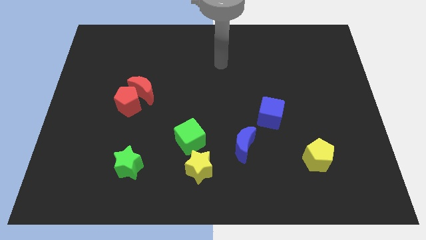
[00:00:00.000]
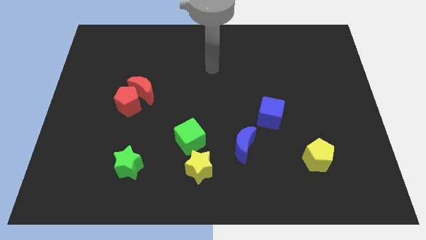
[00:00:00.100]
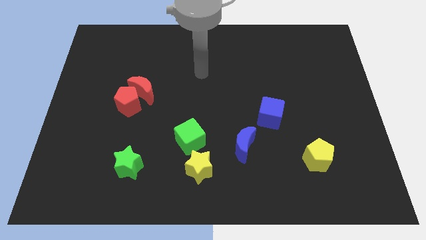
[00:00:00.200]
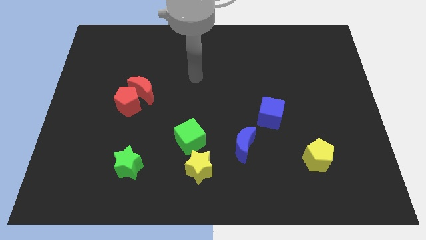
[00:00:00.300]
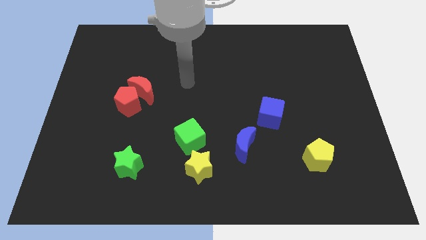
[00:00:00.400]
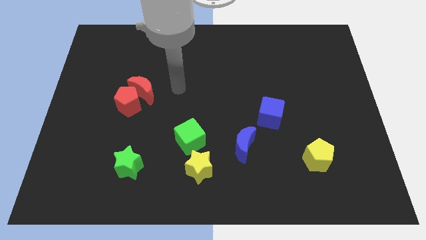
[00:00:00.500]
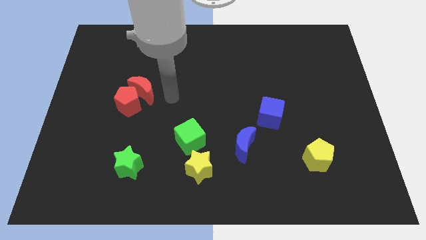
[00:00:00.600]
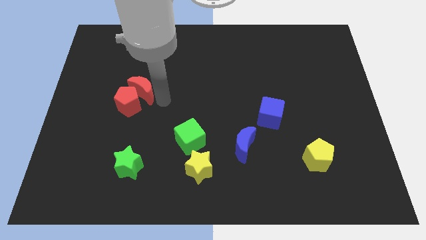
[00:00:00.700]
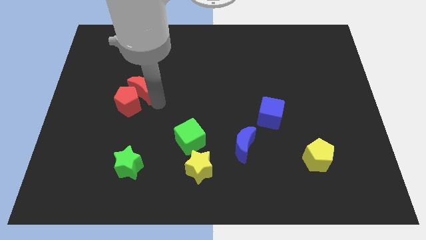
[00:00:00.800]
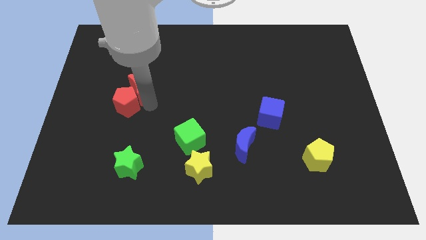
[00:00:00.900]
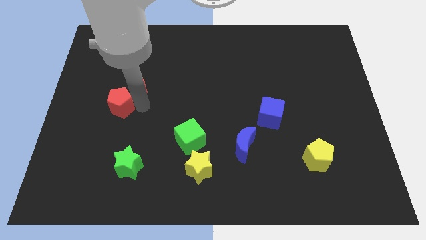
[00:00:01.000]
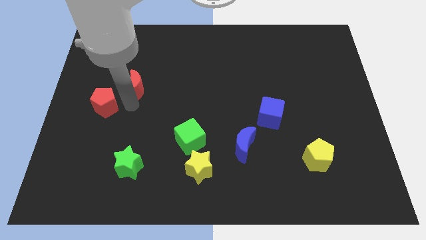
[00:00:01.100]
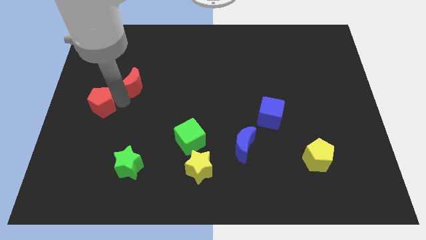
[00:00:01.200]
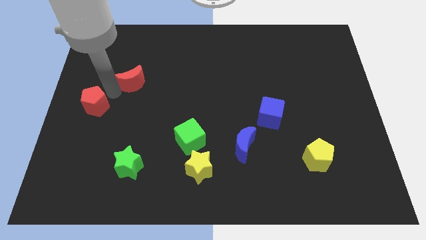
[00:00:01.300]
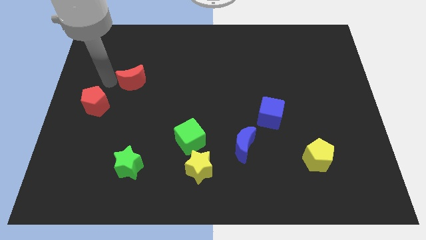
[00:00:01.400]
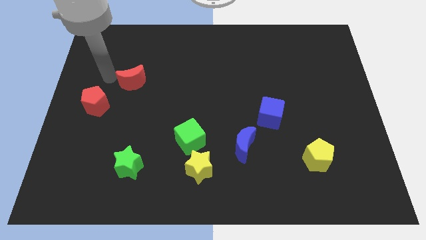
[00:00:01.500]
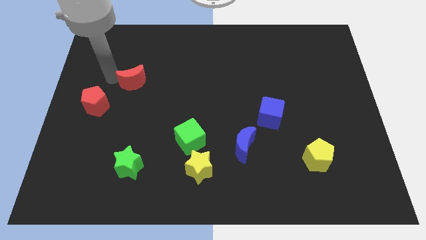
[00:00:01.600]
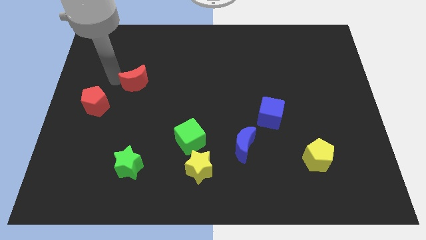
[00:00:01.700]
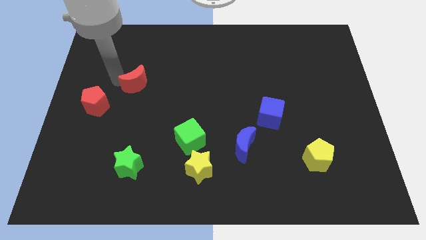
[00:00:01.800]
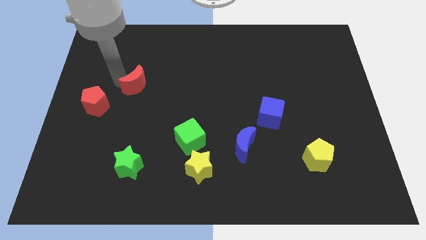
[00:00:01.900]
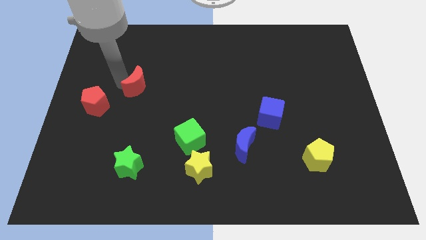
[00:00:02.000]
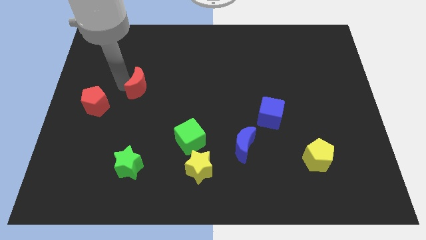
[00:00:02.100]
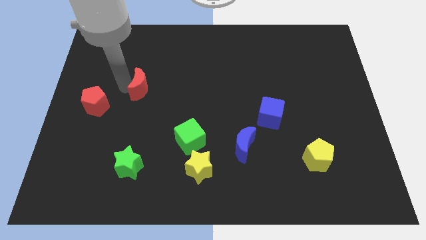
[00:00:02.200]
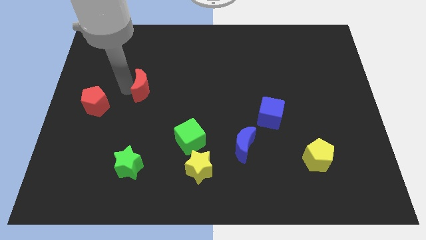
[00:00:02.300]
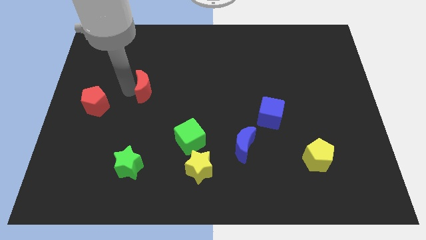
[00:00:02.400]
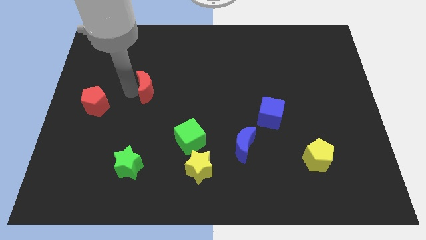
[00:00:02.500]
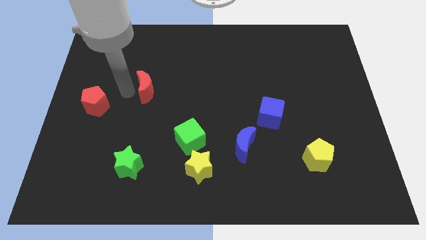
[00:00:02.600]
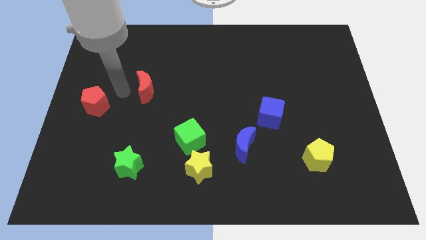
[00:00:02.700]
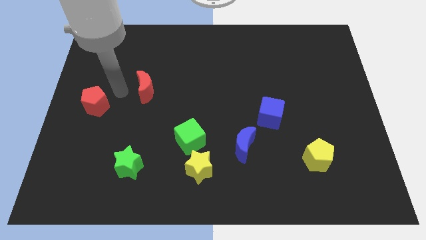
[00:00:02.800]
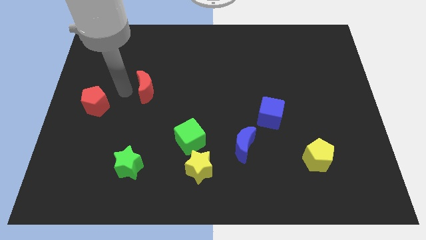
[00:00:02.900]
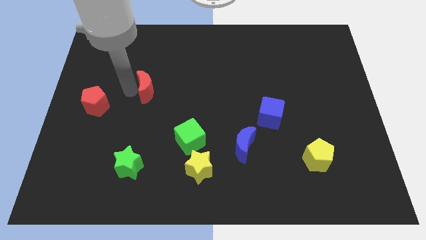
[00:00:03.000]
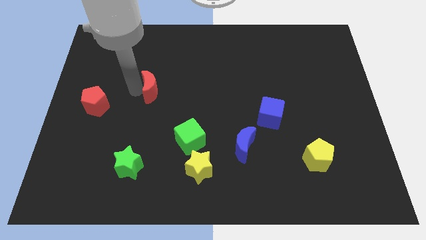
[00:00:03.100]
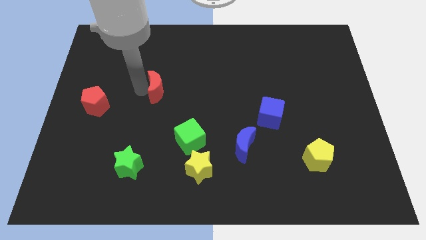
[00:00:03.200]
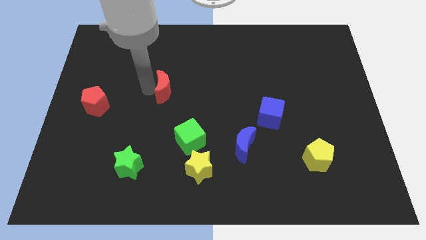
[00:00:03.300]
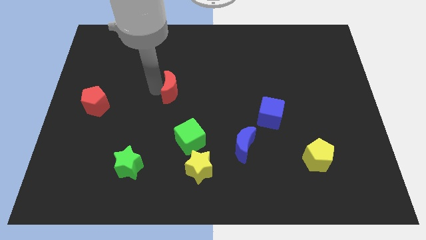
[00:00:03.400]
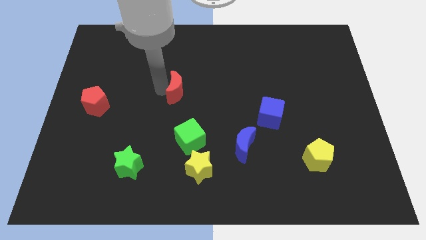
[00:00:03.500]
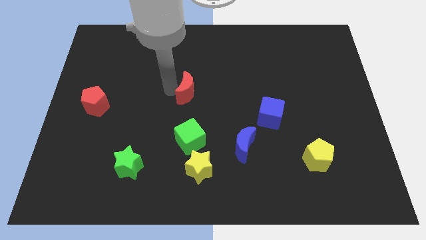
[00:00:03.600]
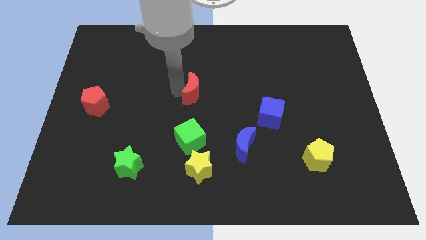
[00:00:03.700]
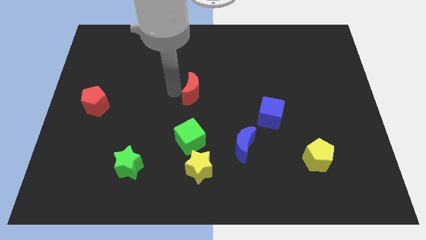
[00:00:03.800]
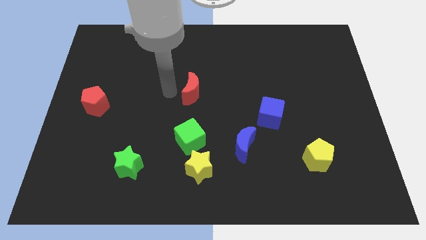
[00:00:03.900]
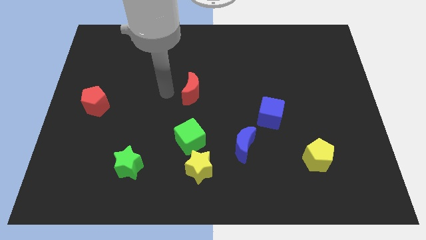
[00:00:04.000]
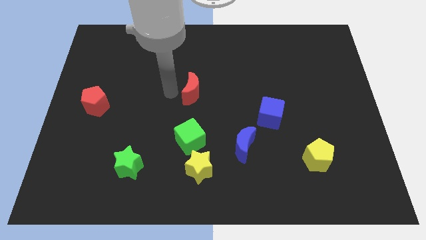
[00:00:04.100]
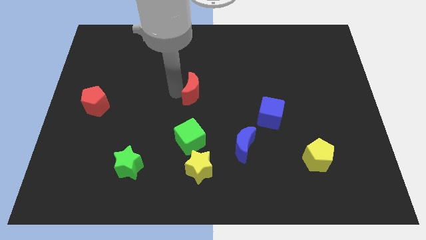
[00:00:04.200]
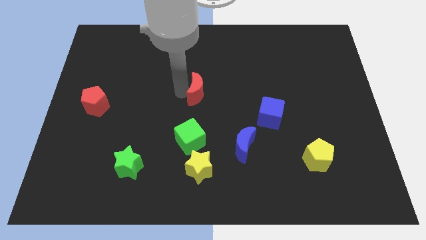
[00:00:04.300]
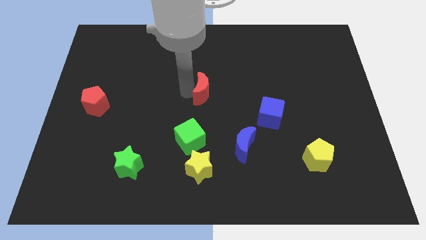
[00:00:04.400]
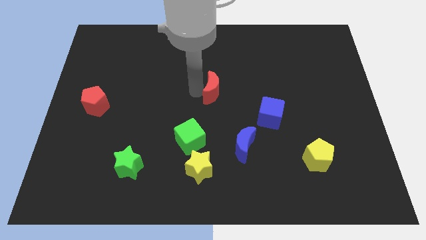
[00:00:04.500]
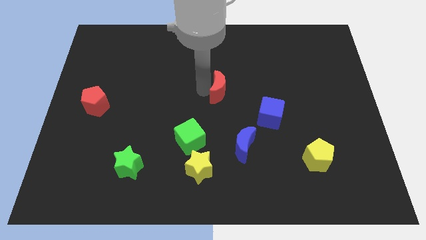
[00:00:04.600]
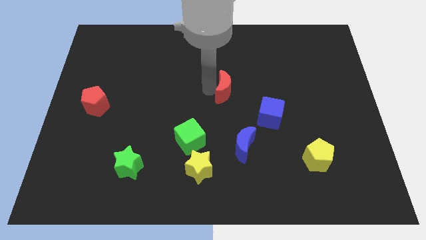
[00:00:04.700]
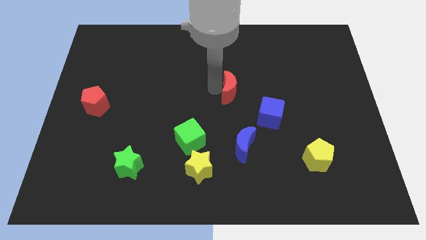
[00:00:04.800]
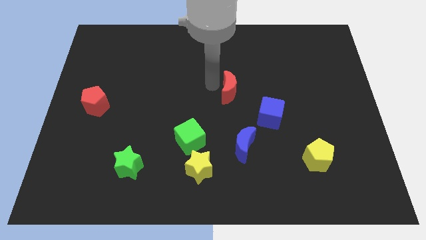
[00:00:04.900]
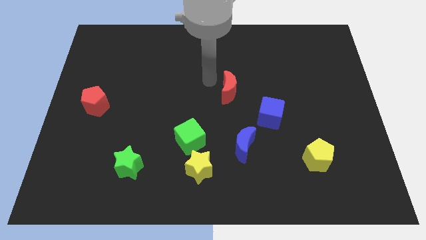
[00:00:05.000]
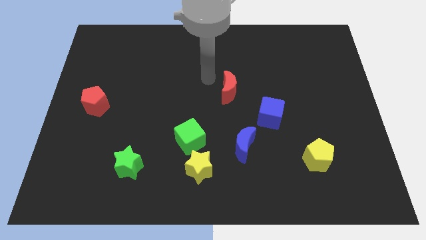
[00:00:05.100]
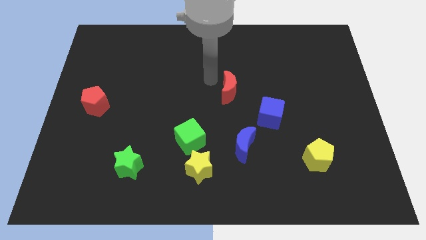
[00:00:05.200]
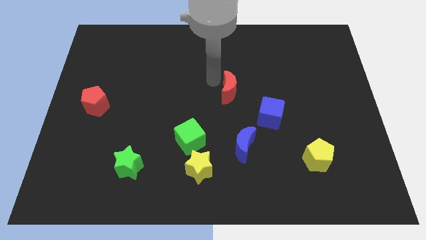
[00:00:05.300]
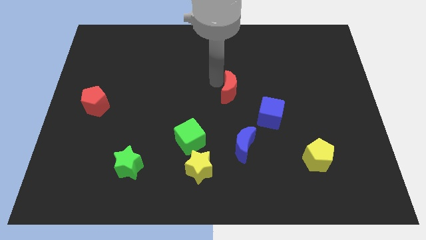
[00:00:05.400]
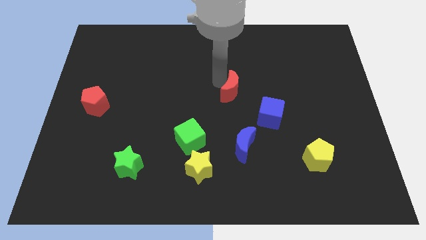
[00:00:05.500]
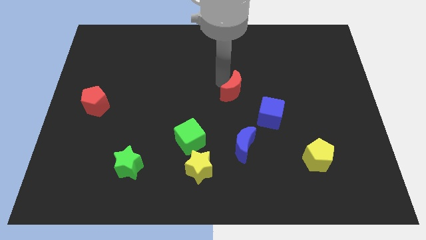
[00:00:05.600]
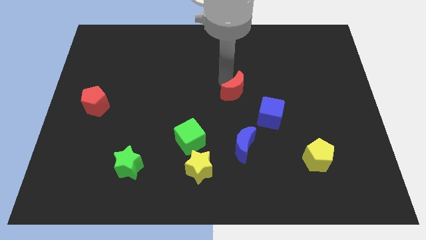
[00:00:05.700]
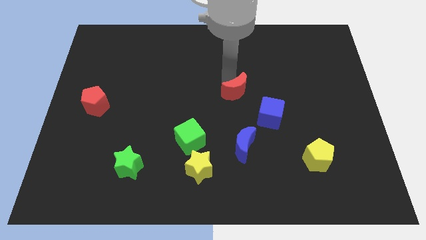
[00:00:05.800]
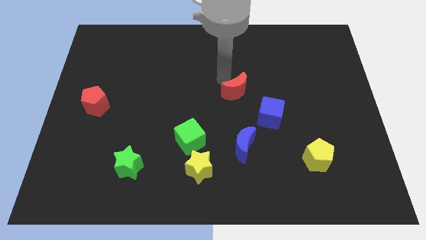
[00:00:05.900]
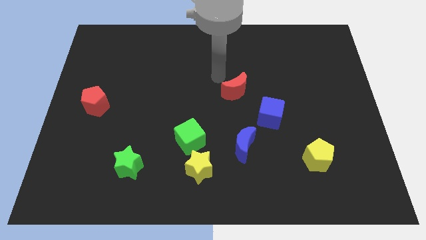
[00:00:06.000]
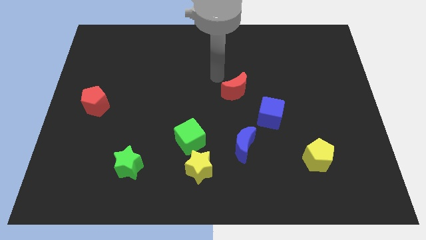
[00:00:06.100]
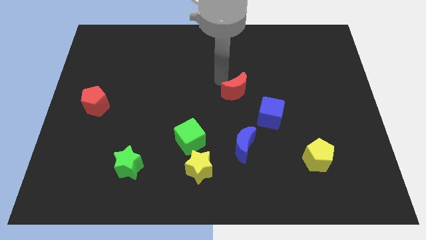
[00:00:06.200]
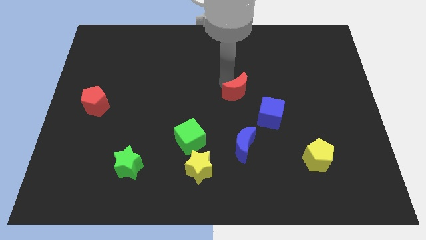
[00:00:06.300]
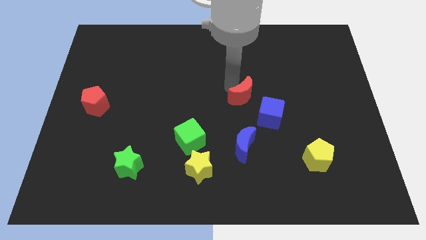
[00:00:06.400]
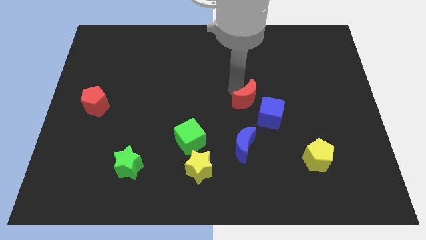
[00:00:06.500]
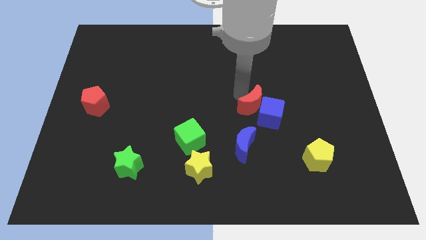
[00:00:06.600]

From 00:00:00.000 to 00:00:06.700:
slide the red moon towards the blue cube

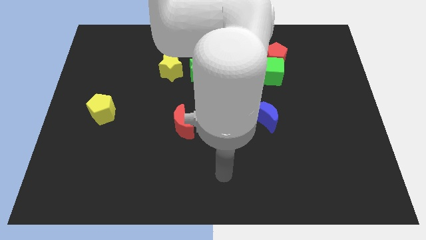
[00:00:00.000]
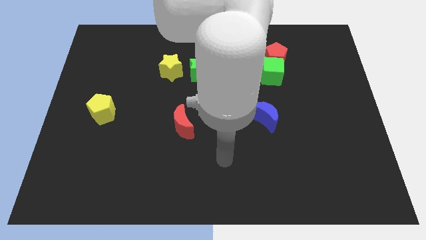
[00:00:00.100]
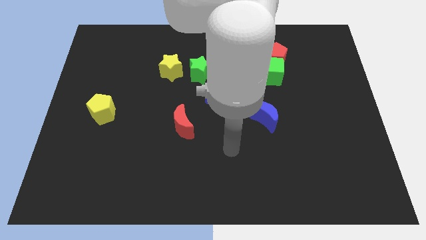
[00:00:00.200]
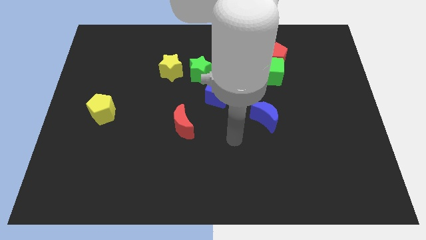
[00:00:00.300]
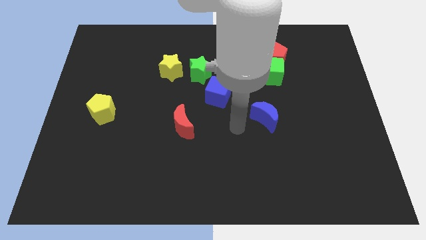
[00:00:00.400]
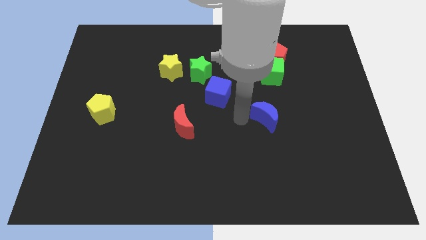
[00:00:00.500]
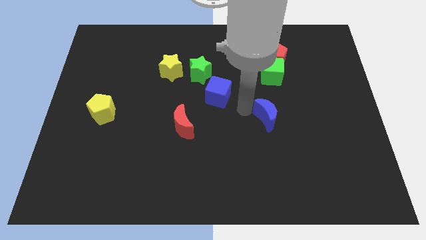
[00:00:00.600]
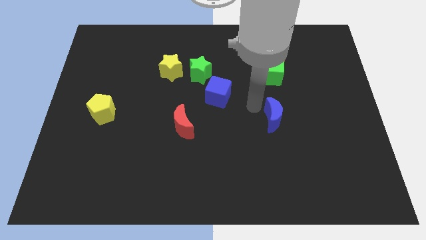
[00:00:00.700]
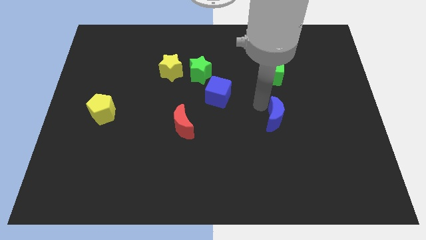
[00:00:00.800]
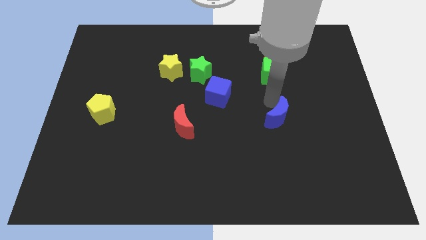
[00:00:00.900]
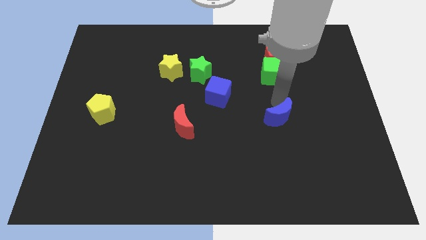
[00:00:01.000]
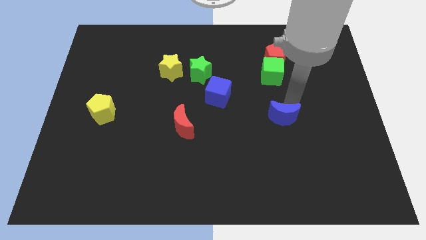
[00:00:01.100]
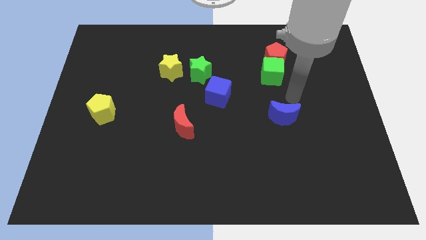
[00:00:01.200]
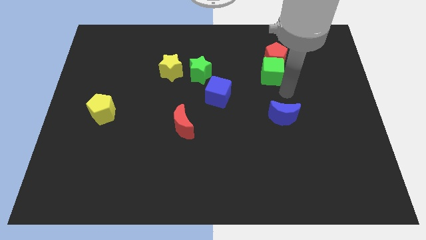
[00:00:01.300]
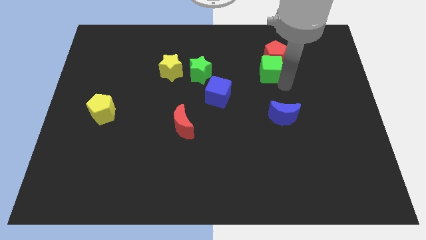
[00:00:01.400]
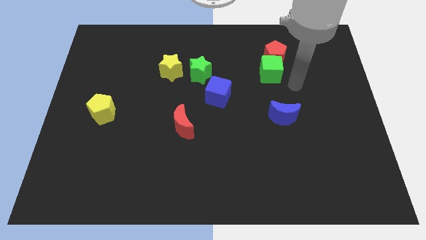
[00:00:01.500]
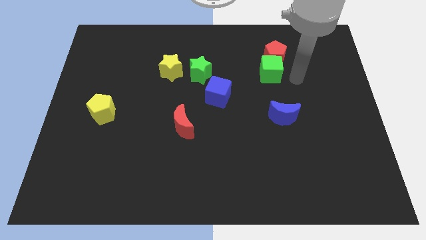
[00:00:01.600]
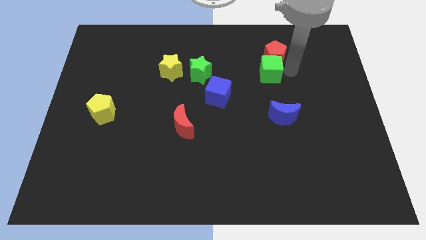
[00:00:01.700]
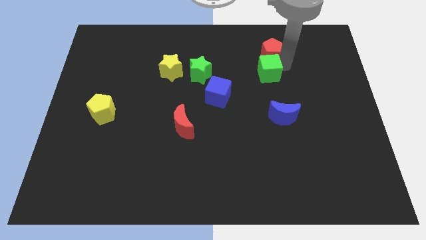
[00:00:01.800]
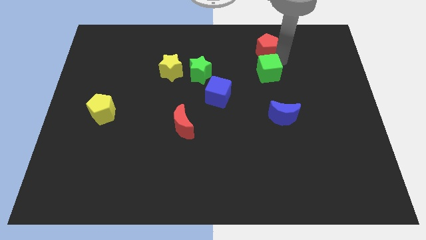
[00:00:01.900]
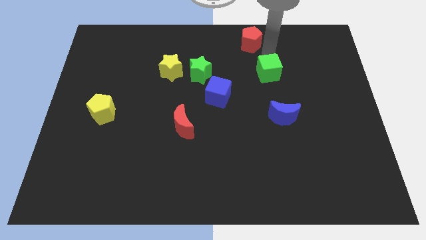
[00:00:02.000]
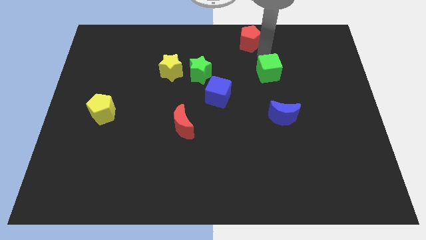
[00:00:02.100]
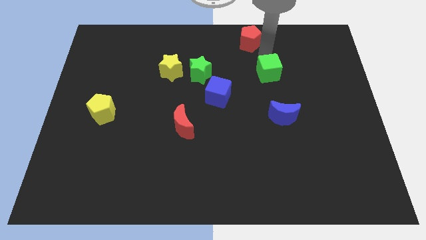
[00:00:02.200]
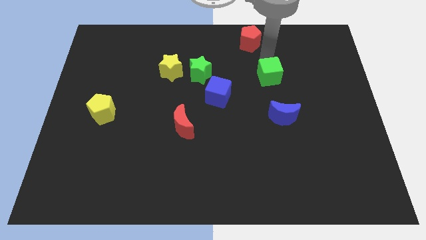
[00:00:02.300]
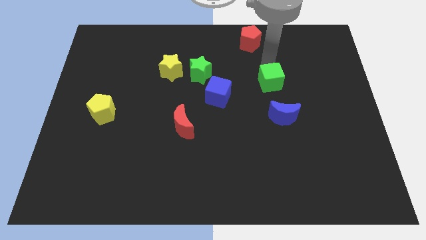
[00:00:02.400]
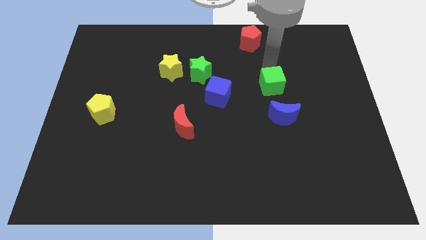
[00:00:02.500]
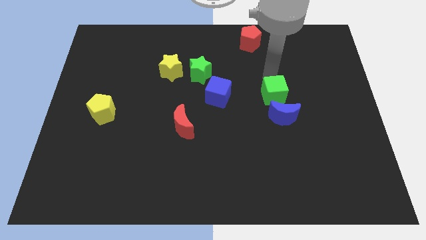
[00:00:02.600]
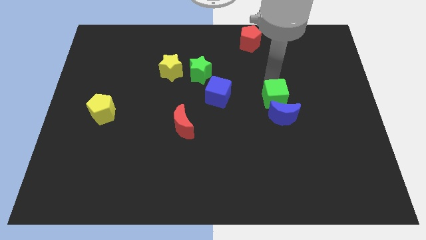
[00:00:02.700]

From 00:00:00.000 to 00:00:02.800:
push the green cube to the blue moon
